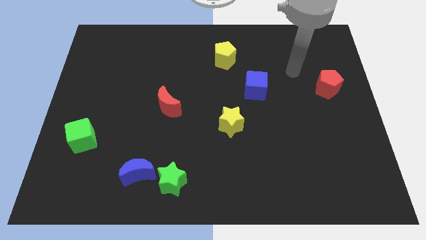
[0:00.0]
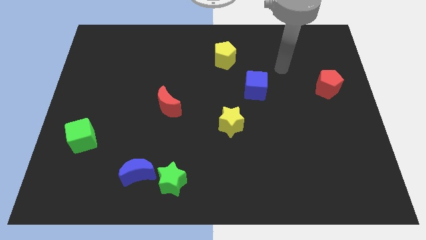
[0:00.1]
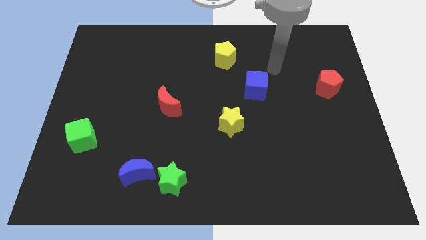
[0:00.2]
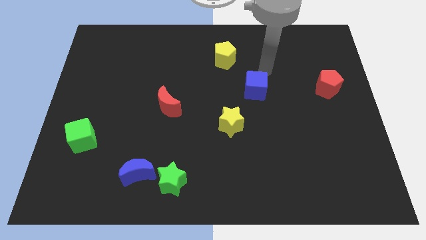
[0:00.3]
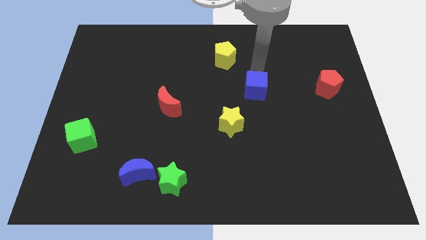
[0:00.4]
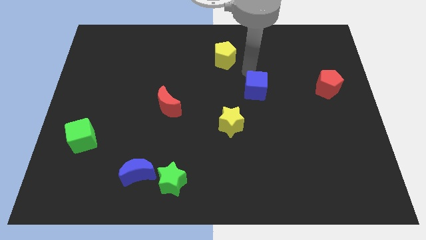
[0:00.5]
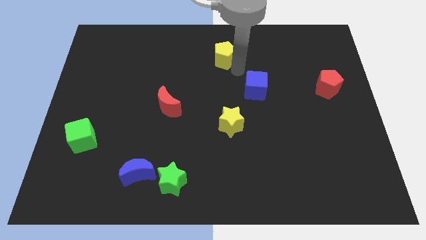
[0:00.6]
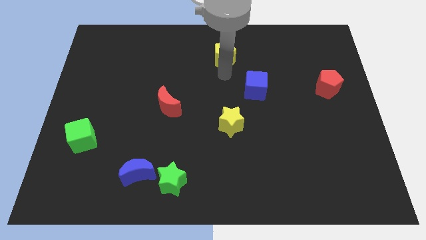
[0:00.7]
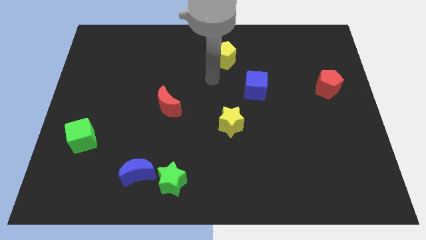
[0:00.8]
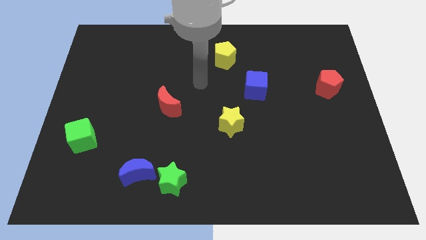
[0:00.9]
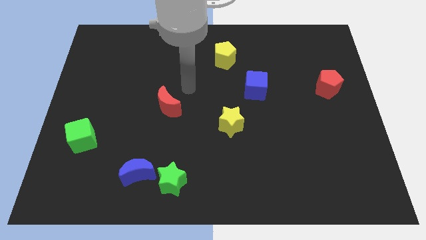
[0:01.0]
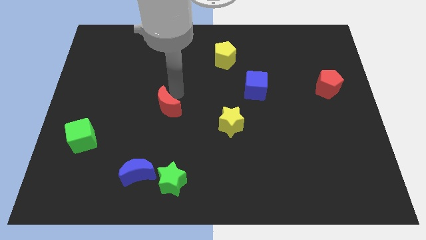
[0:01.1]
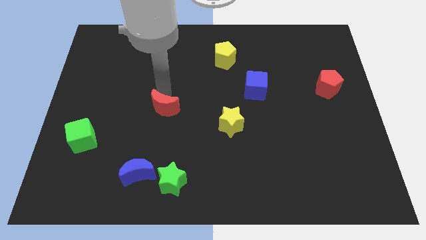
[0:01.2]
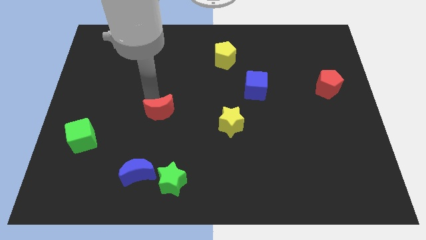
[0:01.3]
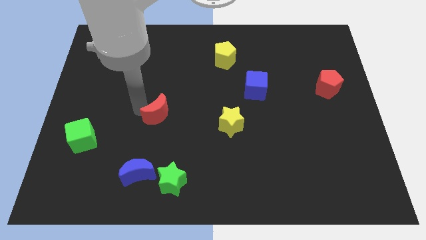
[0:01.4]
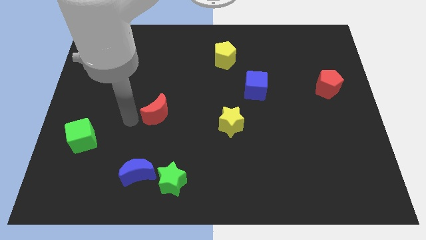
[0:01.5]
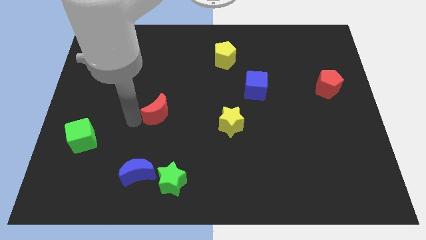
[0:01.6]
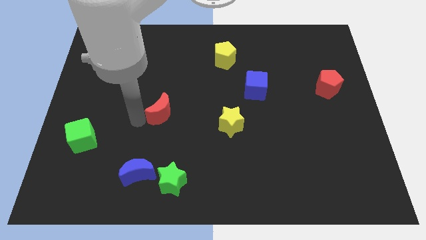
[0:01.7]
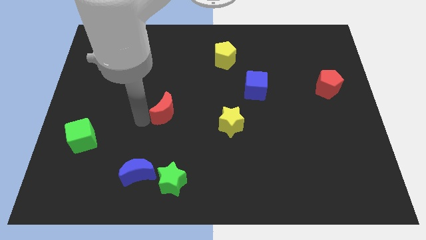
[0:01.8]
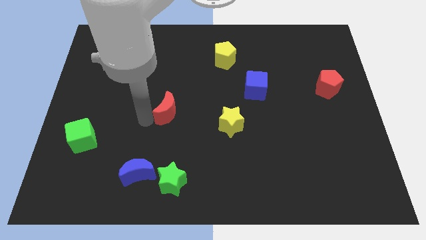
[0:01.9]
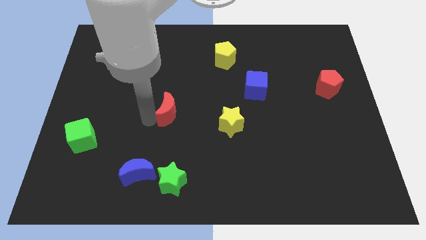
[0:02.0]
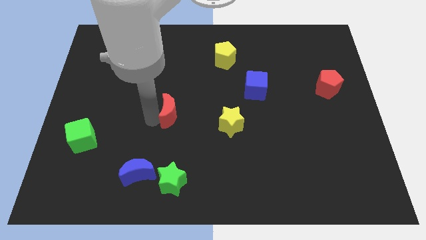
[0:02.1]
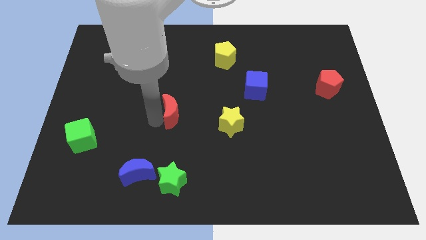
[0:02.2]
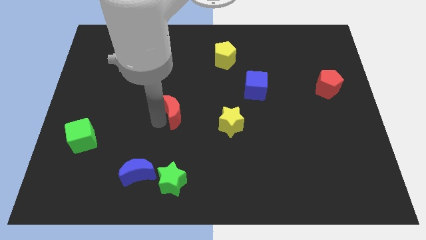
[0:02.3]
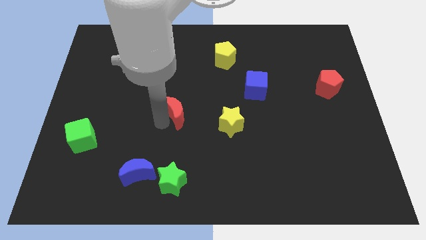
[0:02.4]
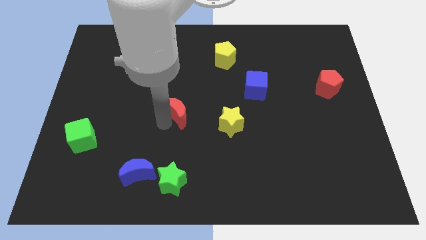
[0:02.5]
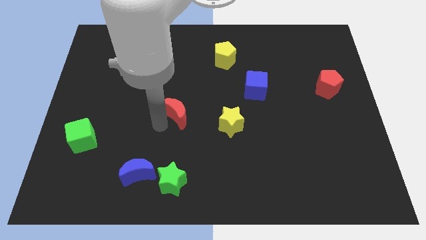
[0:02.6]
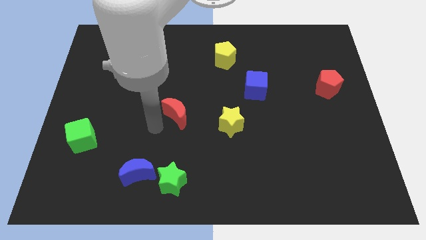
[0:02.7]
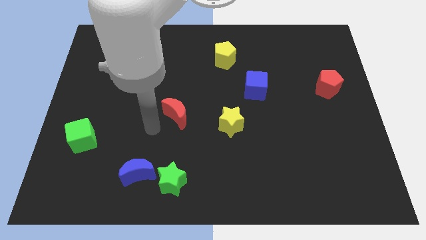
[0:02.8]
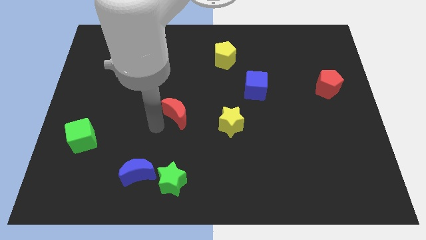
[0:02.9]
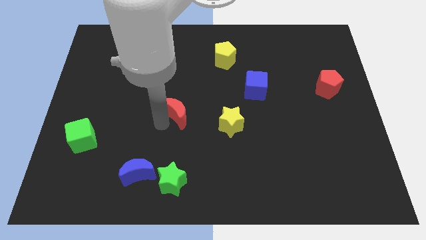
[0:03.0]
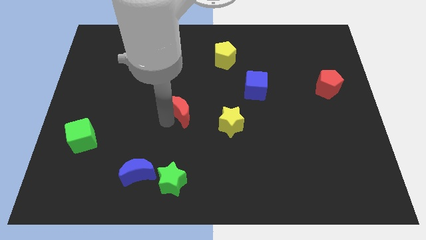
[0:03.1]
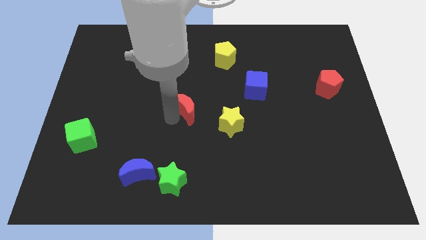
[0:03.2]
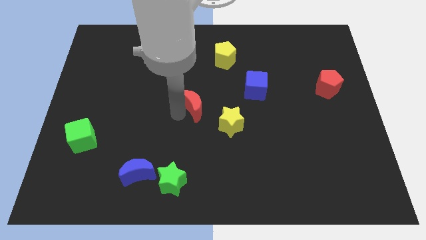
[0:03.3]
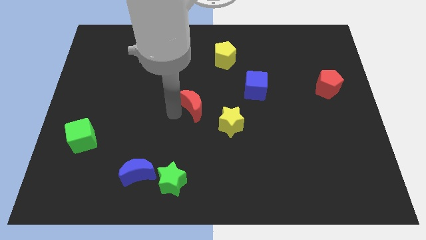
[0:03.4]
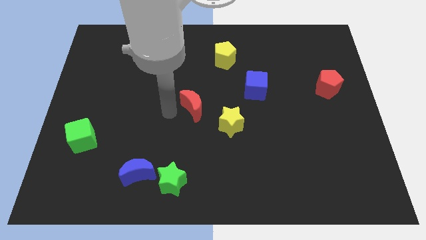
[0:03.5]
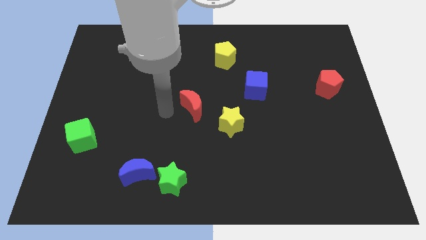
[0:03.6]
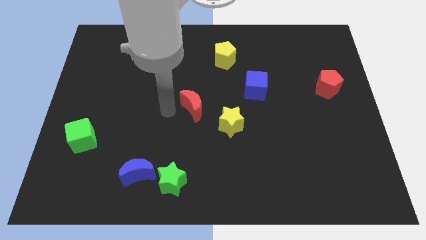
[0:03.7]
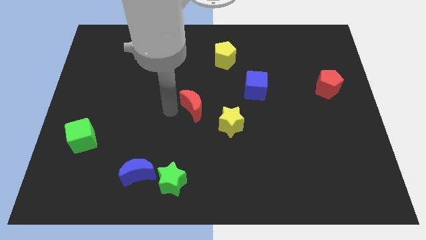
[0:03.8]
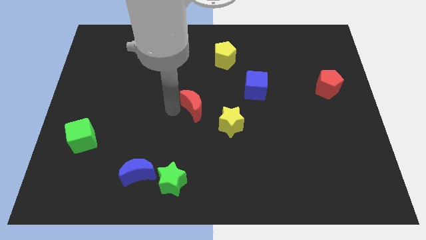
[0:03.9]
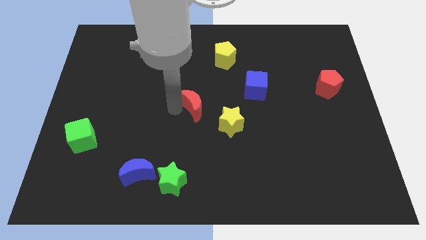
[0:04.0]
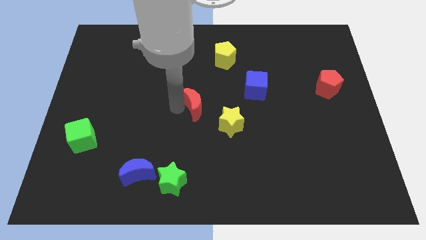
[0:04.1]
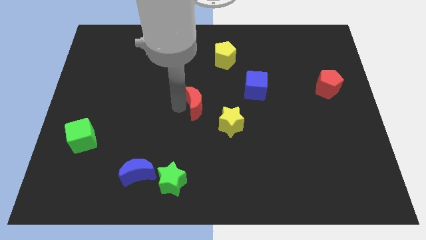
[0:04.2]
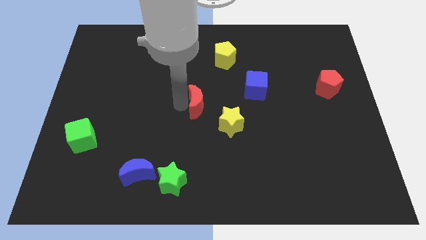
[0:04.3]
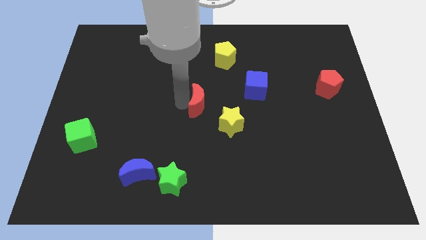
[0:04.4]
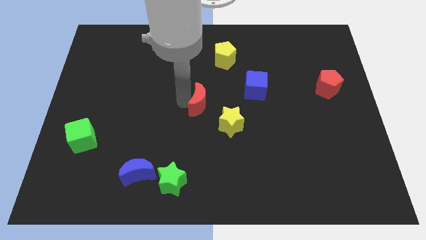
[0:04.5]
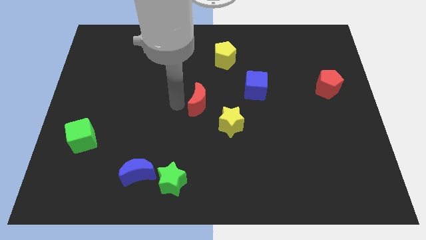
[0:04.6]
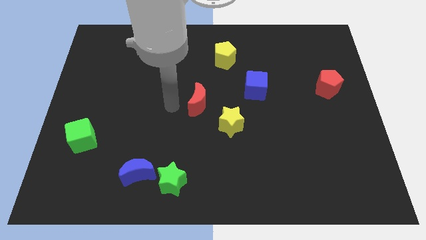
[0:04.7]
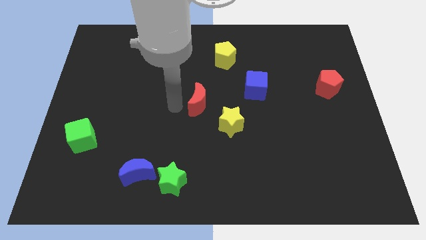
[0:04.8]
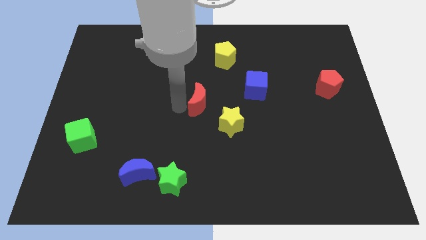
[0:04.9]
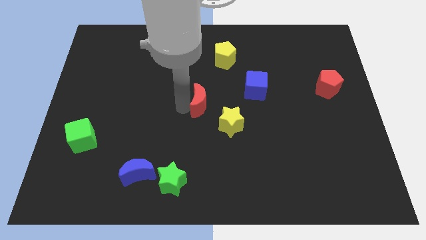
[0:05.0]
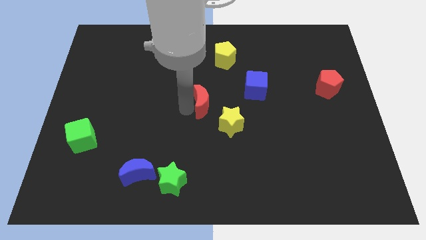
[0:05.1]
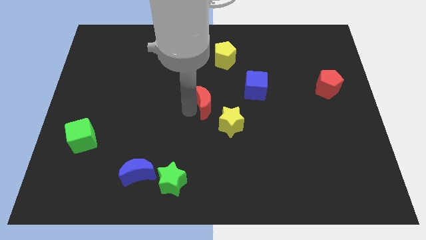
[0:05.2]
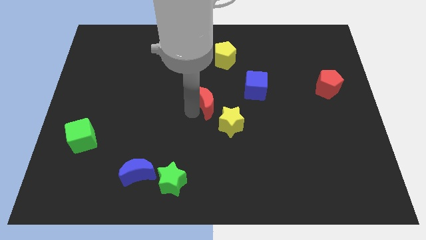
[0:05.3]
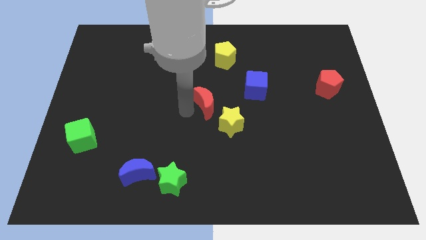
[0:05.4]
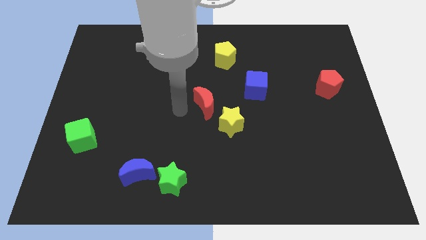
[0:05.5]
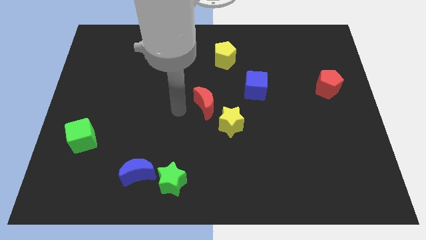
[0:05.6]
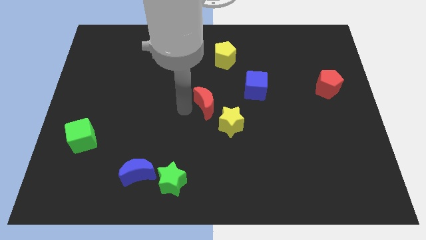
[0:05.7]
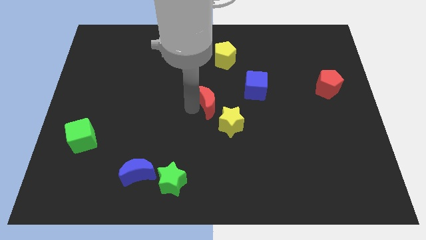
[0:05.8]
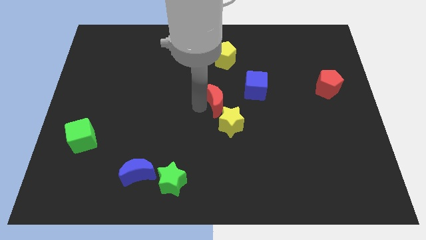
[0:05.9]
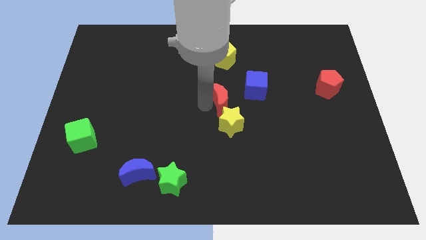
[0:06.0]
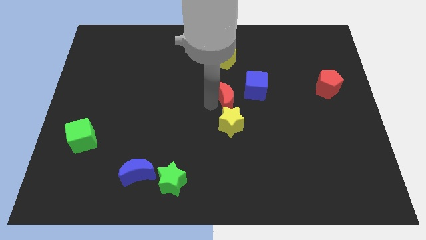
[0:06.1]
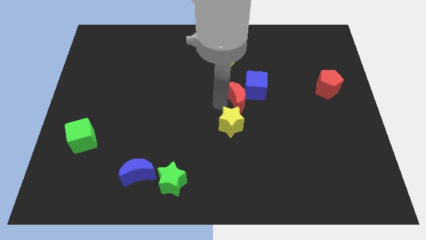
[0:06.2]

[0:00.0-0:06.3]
slide the red moon close to the blue cube

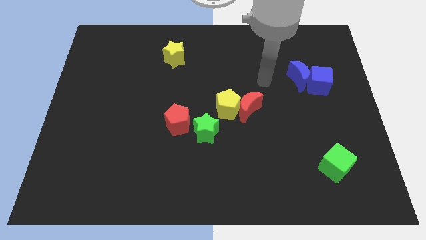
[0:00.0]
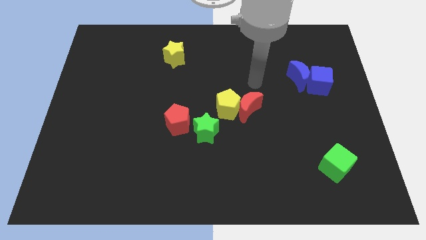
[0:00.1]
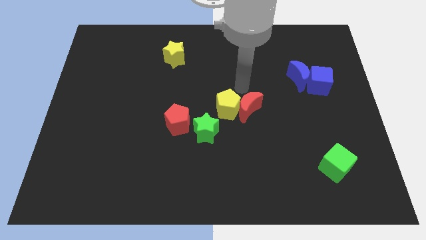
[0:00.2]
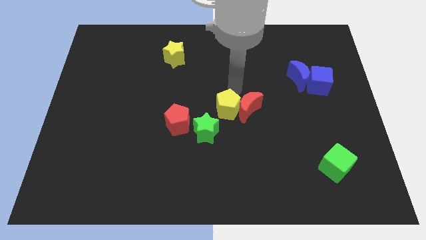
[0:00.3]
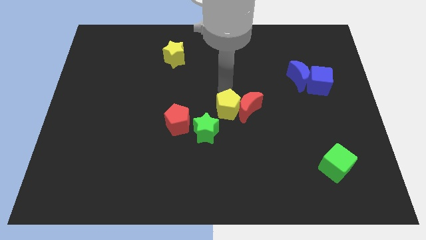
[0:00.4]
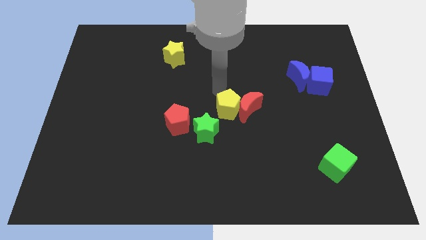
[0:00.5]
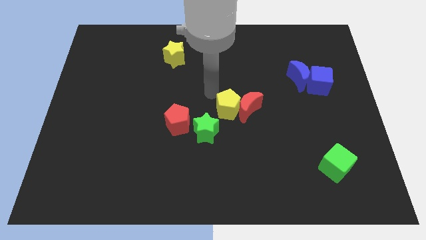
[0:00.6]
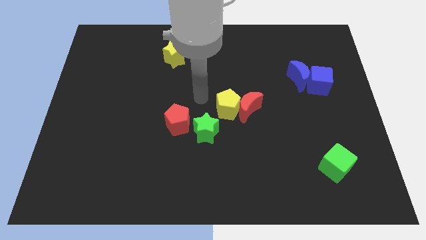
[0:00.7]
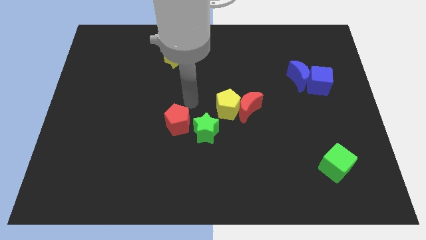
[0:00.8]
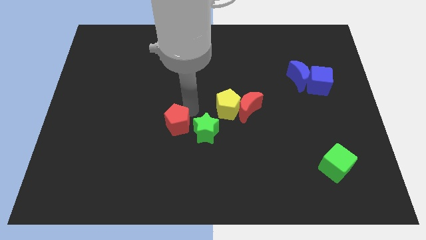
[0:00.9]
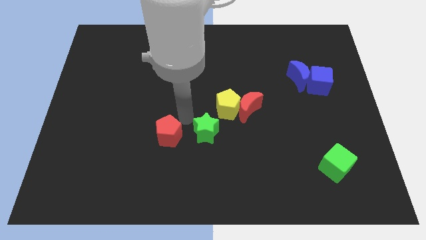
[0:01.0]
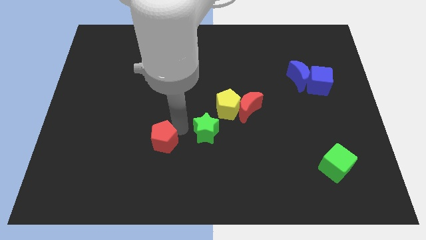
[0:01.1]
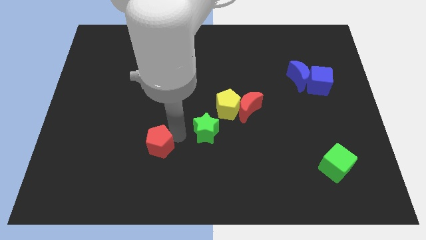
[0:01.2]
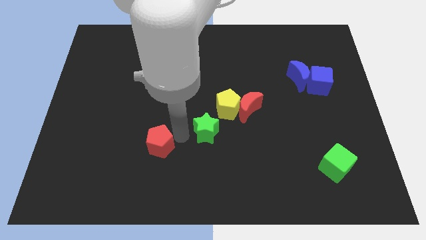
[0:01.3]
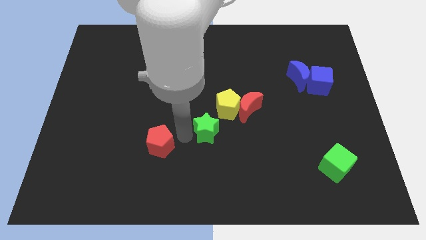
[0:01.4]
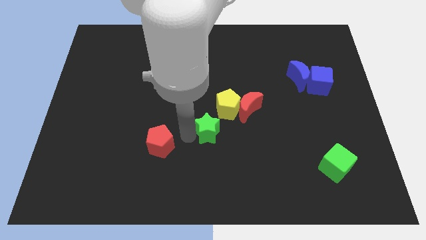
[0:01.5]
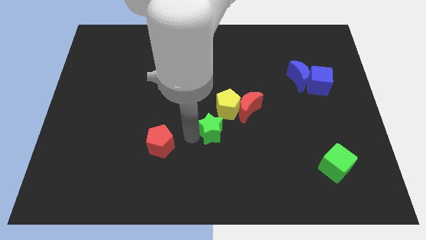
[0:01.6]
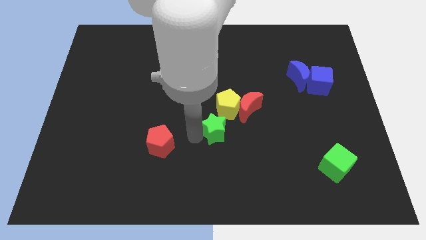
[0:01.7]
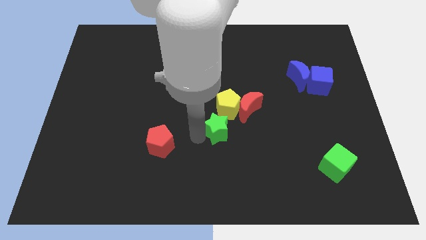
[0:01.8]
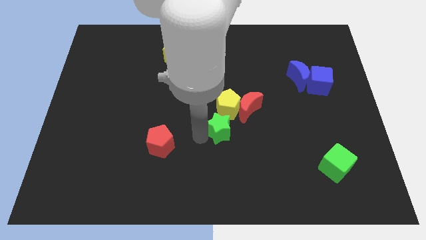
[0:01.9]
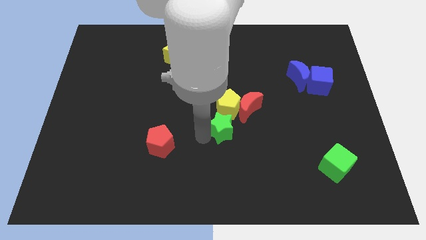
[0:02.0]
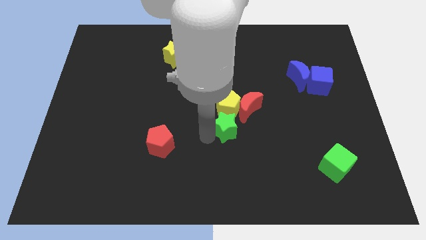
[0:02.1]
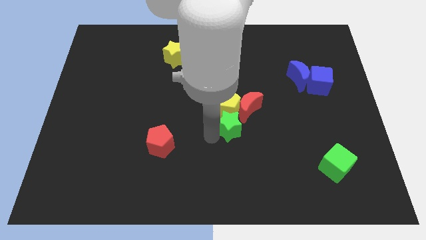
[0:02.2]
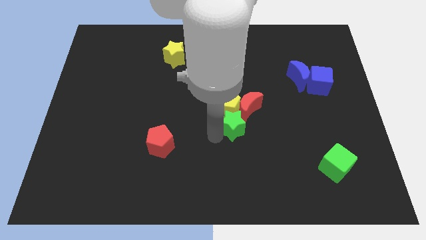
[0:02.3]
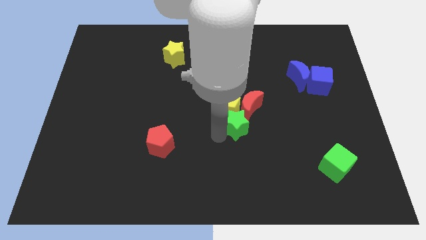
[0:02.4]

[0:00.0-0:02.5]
slide the green star to the red moon
